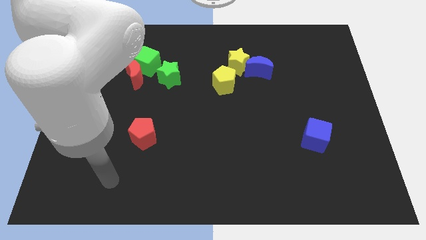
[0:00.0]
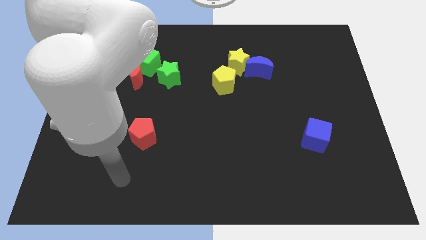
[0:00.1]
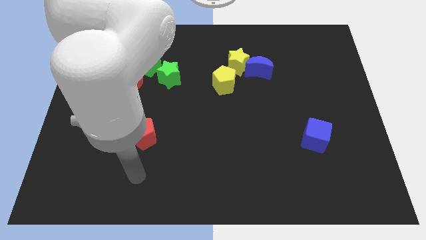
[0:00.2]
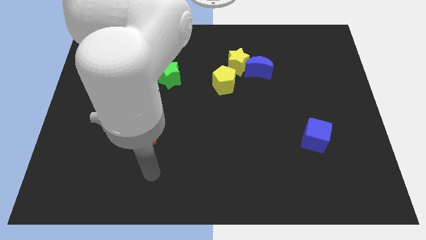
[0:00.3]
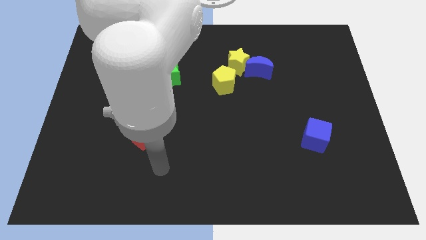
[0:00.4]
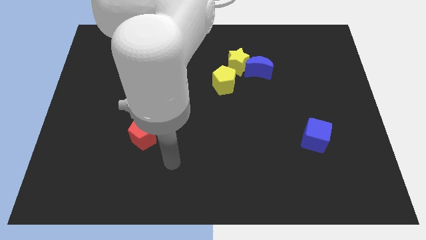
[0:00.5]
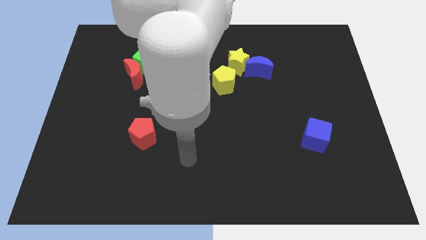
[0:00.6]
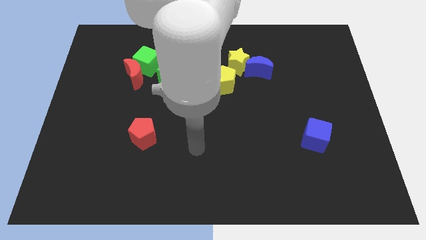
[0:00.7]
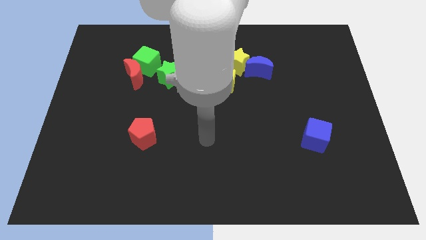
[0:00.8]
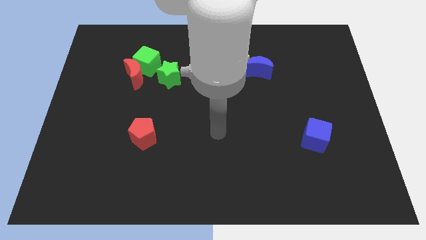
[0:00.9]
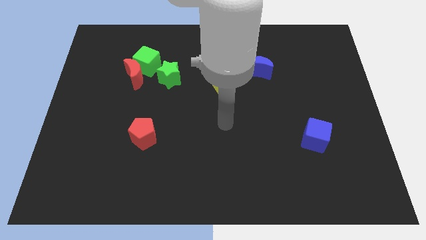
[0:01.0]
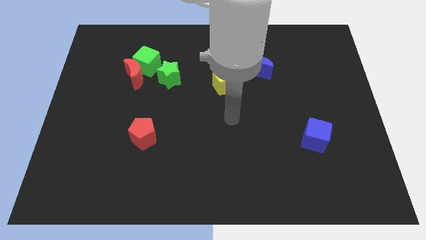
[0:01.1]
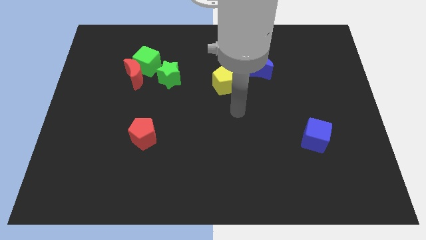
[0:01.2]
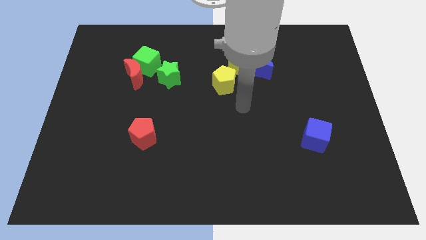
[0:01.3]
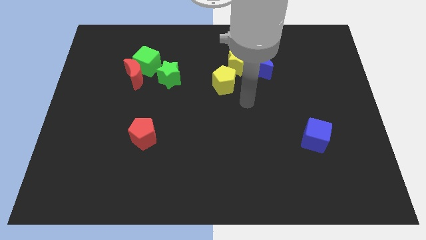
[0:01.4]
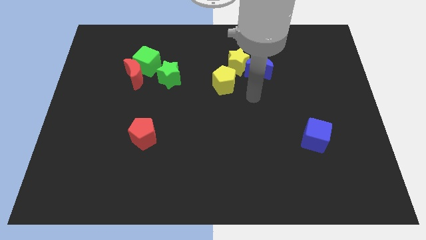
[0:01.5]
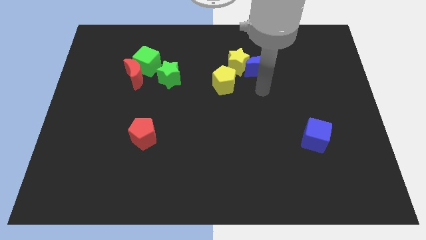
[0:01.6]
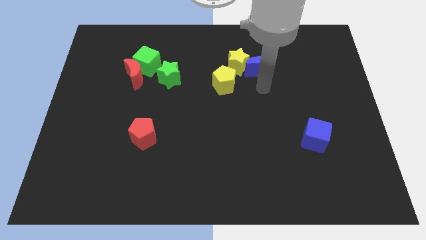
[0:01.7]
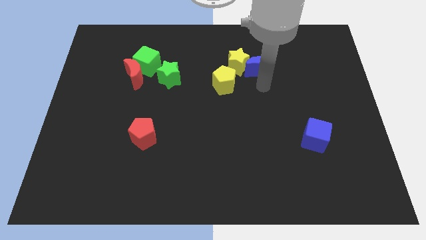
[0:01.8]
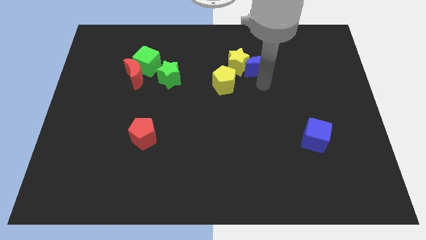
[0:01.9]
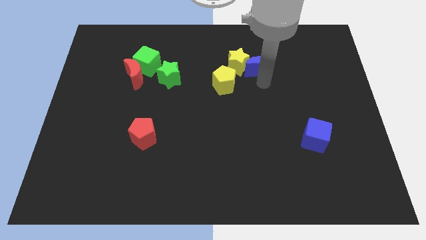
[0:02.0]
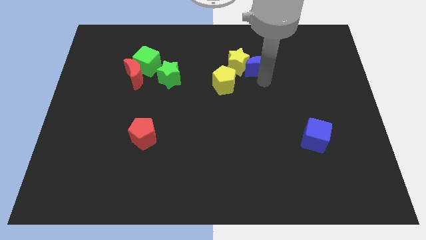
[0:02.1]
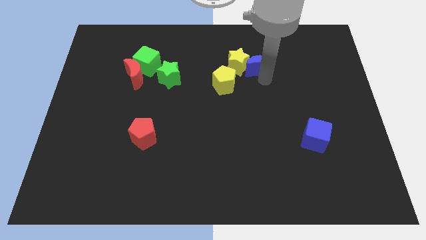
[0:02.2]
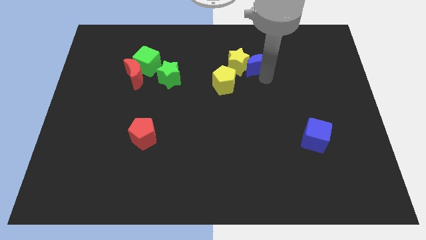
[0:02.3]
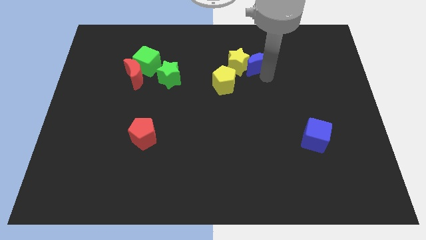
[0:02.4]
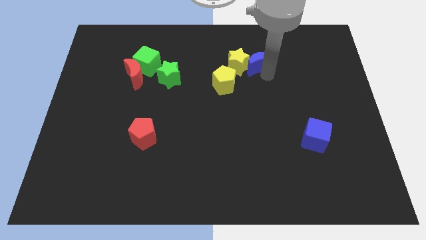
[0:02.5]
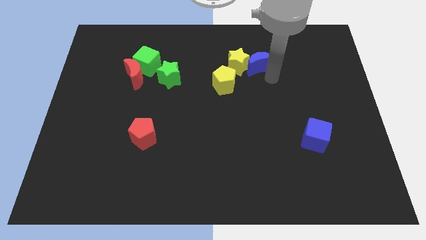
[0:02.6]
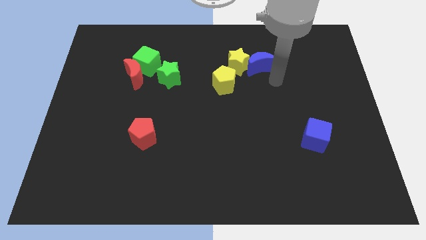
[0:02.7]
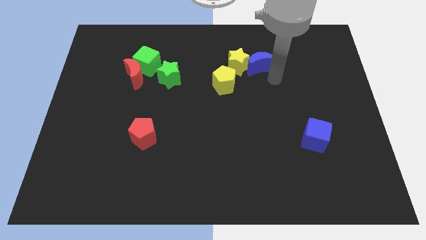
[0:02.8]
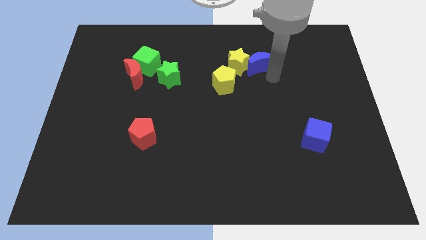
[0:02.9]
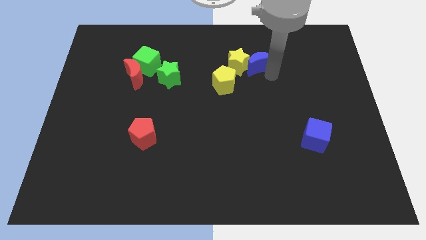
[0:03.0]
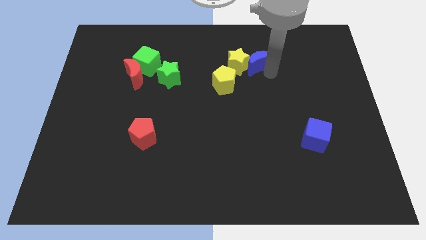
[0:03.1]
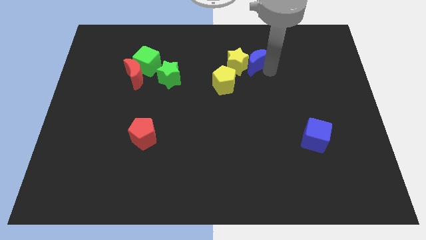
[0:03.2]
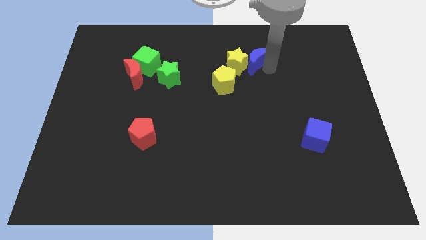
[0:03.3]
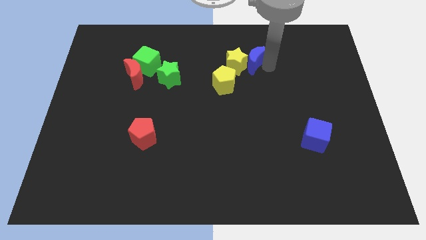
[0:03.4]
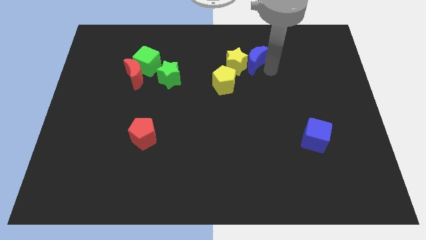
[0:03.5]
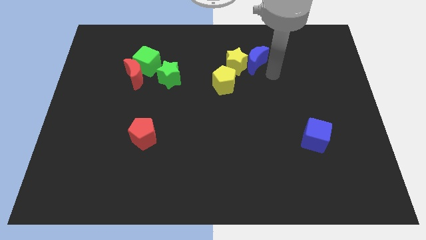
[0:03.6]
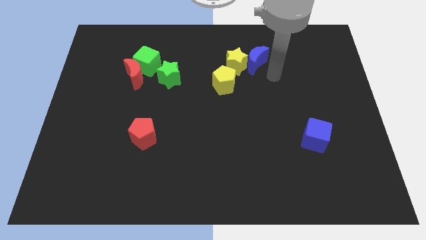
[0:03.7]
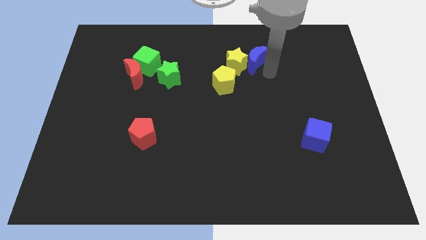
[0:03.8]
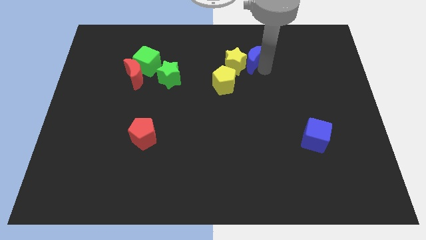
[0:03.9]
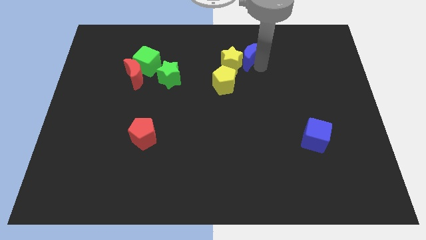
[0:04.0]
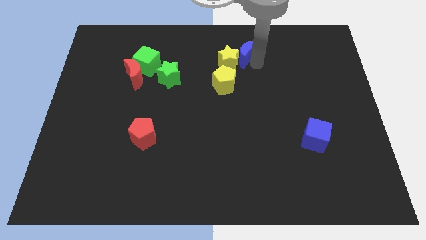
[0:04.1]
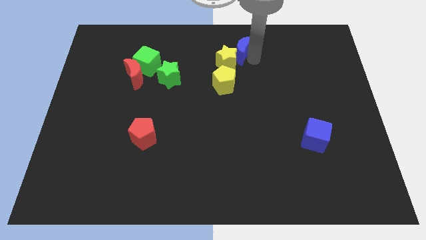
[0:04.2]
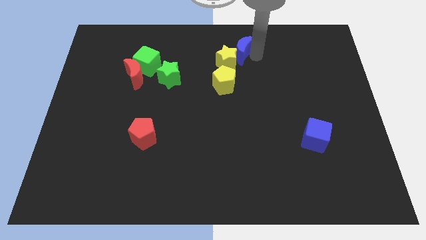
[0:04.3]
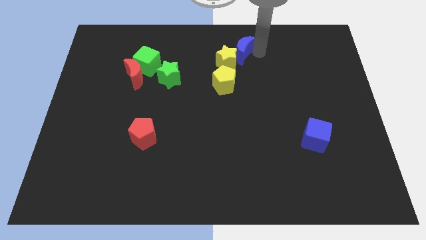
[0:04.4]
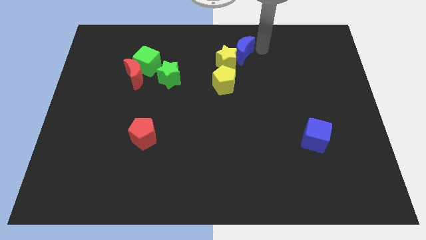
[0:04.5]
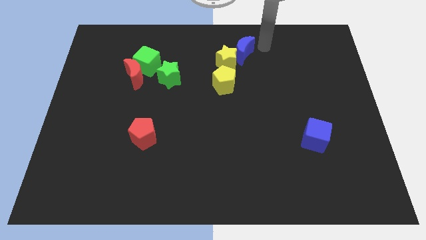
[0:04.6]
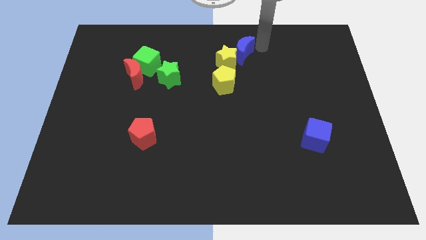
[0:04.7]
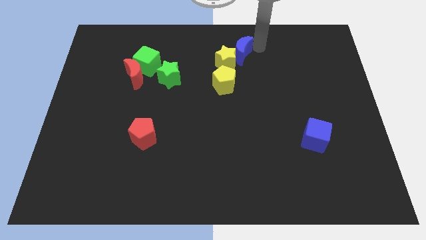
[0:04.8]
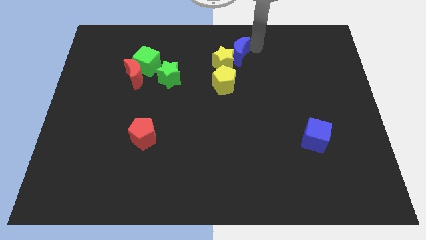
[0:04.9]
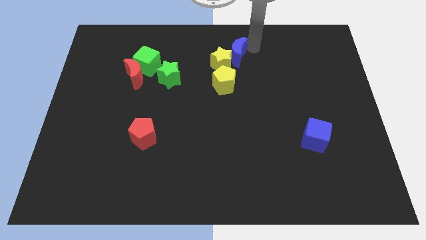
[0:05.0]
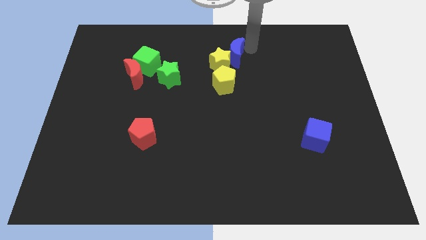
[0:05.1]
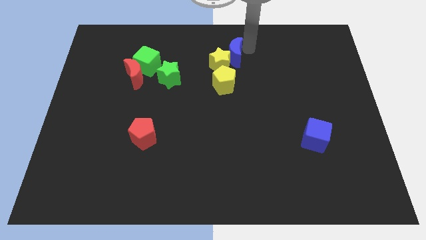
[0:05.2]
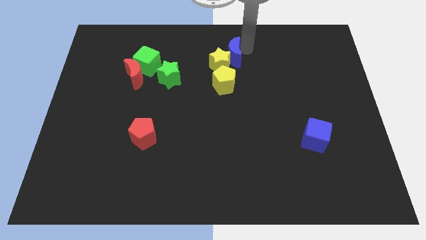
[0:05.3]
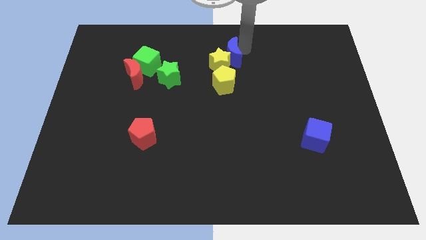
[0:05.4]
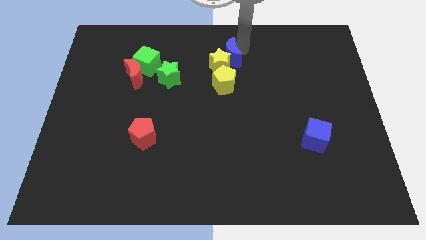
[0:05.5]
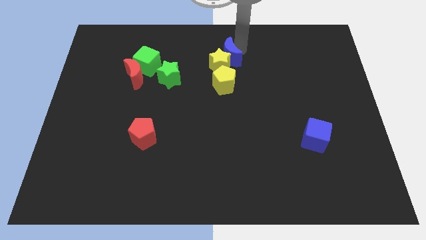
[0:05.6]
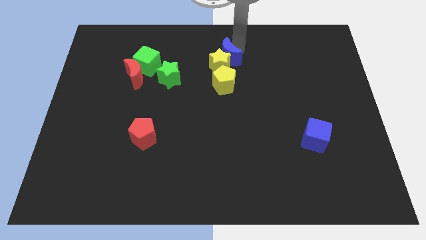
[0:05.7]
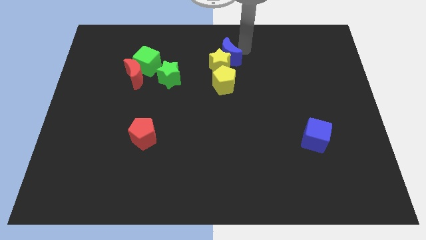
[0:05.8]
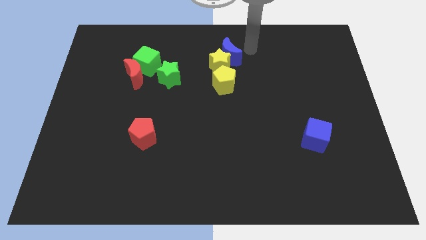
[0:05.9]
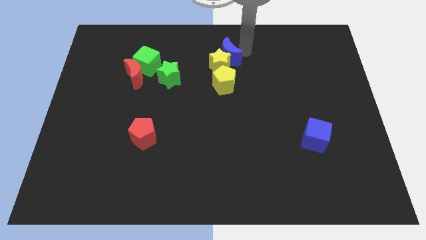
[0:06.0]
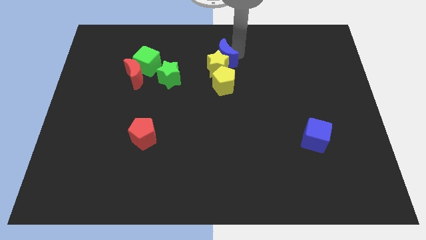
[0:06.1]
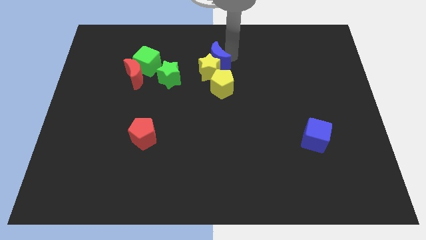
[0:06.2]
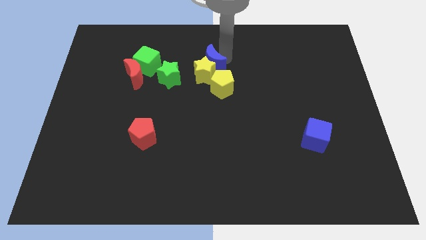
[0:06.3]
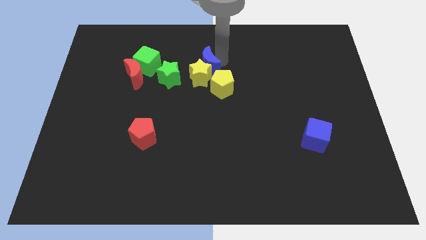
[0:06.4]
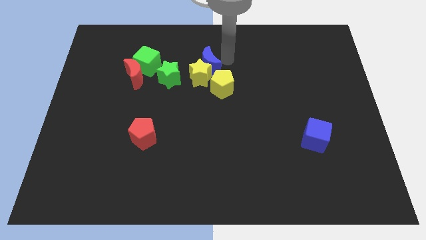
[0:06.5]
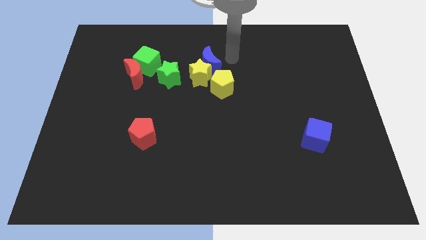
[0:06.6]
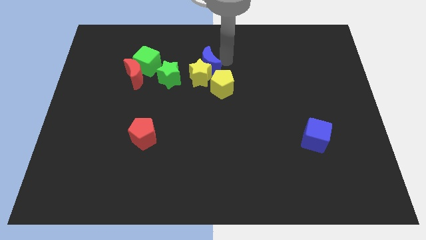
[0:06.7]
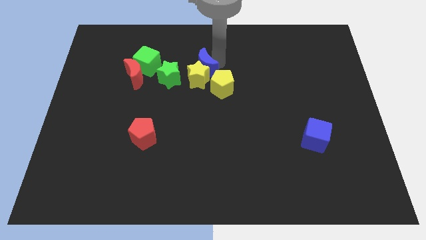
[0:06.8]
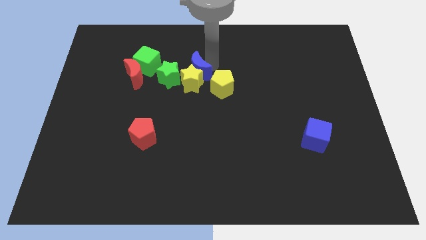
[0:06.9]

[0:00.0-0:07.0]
move the blue moon right of the red moon

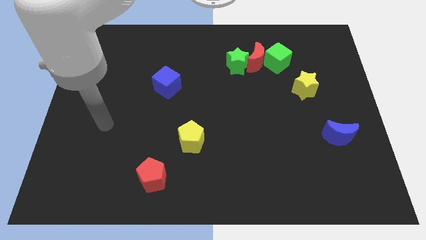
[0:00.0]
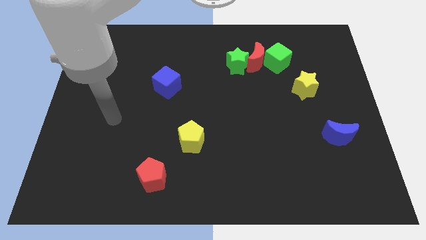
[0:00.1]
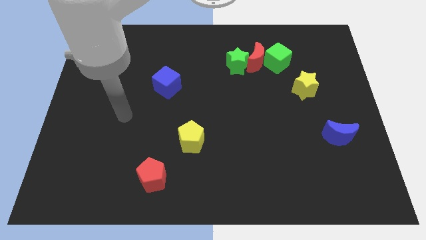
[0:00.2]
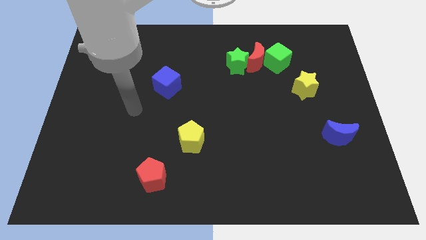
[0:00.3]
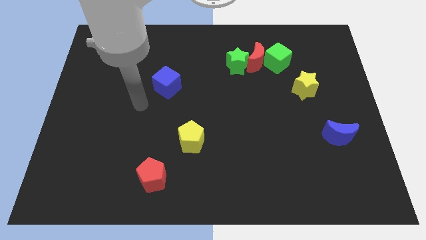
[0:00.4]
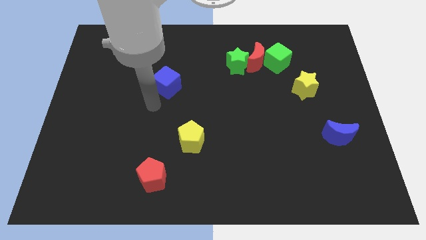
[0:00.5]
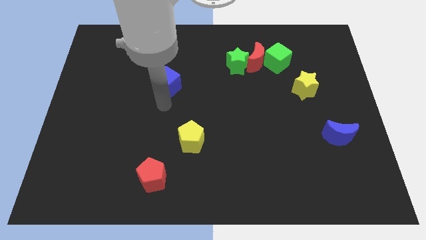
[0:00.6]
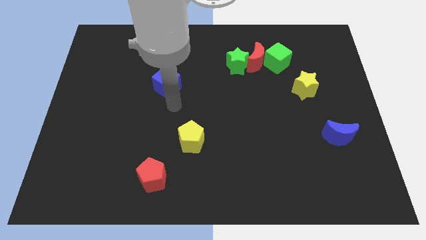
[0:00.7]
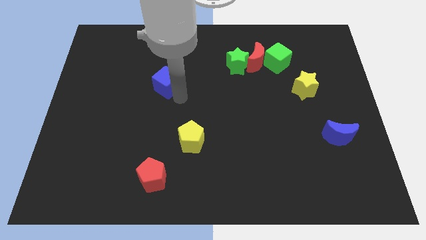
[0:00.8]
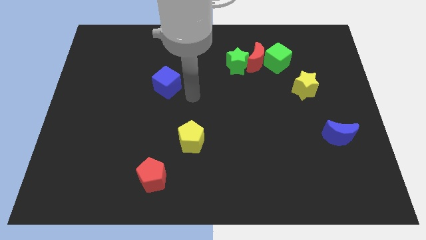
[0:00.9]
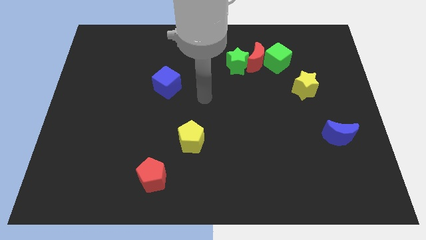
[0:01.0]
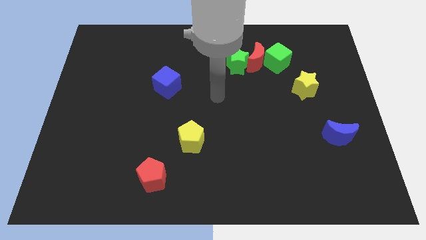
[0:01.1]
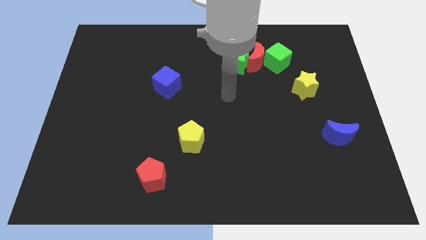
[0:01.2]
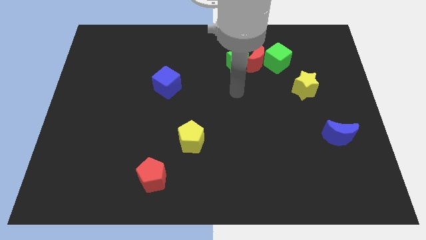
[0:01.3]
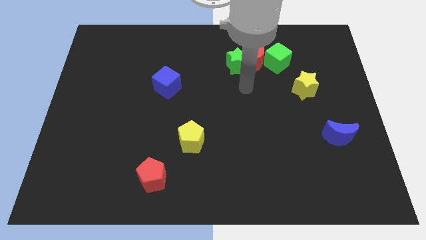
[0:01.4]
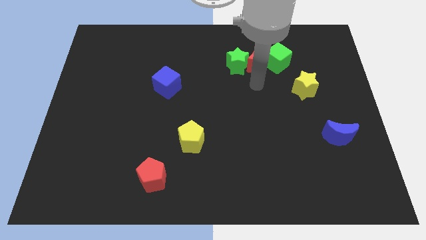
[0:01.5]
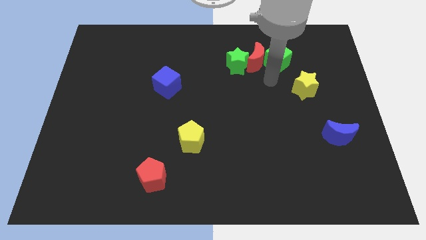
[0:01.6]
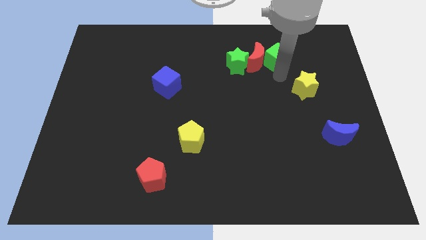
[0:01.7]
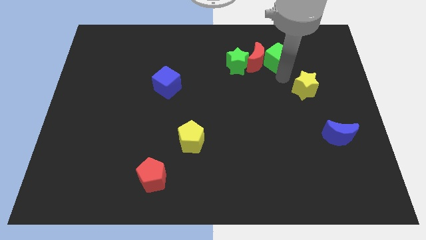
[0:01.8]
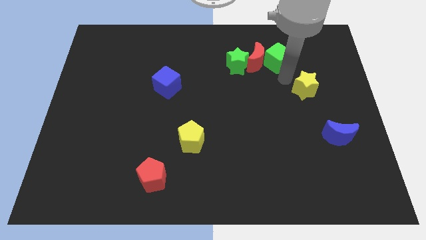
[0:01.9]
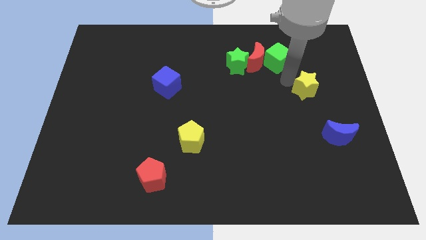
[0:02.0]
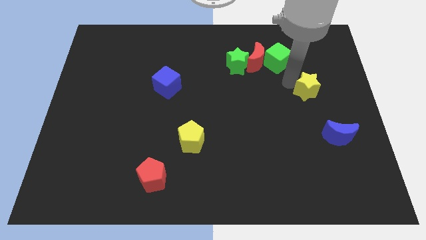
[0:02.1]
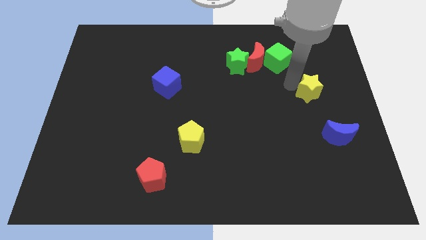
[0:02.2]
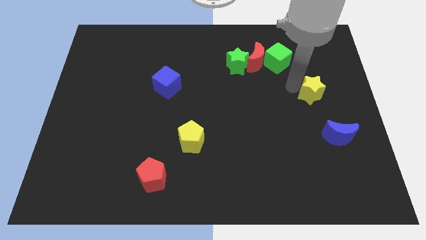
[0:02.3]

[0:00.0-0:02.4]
put the yellow star above the blue moon
